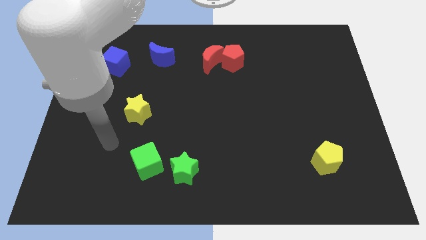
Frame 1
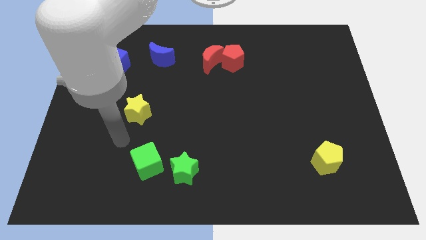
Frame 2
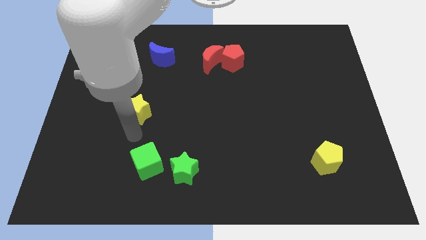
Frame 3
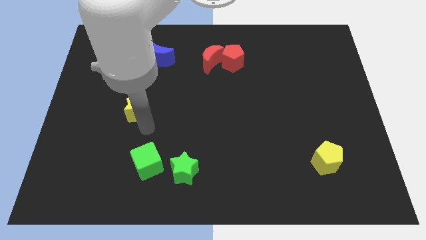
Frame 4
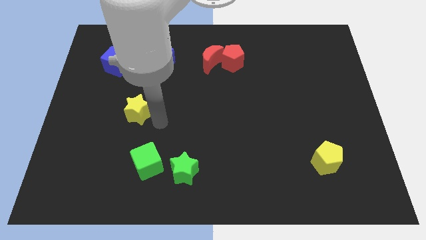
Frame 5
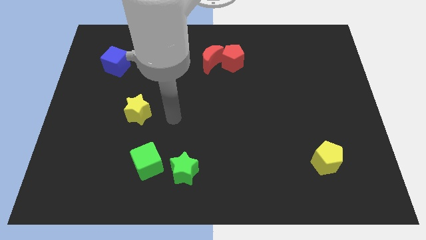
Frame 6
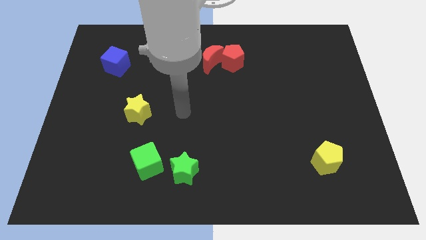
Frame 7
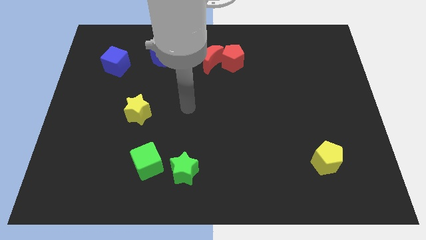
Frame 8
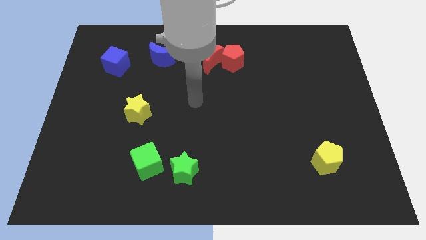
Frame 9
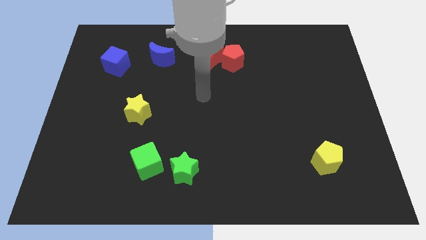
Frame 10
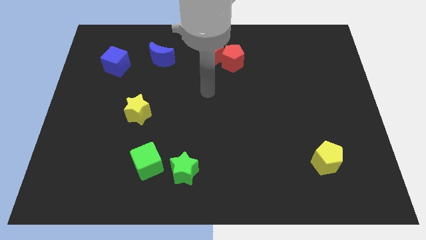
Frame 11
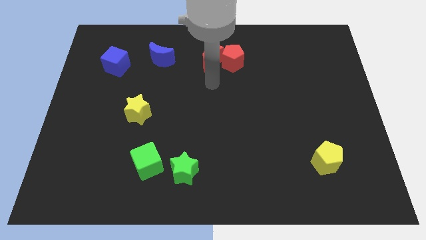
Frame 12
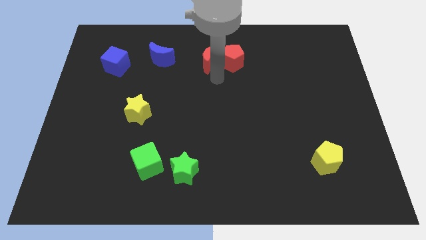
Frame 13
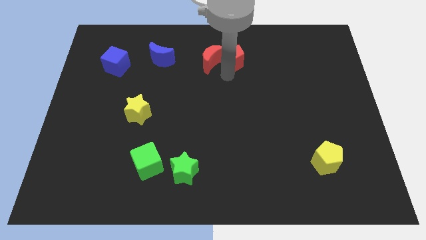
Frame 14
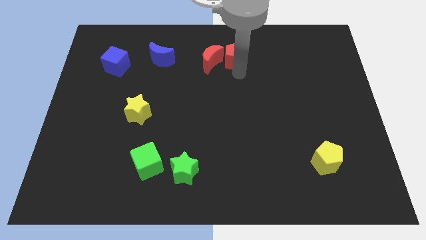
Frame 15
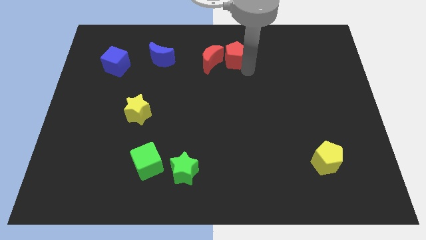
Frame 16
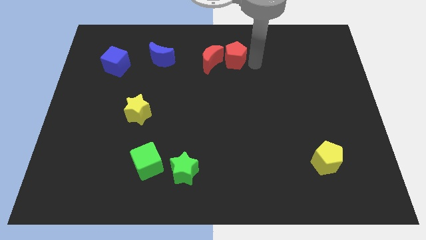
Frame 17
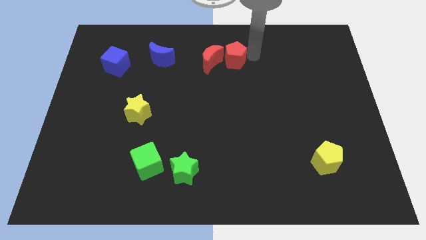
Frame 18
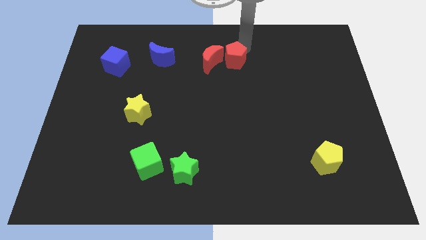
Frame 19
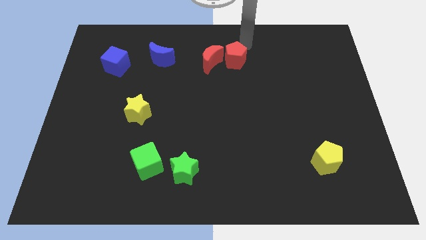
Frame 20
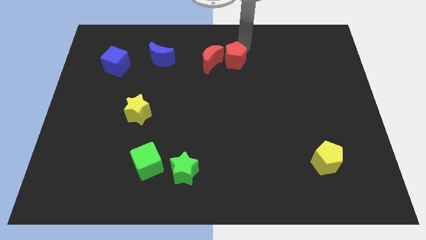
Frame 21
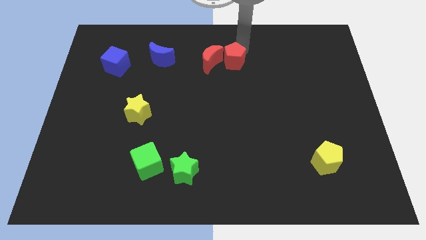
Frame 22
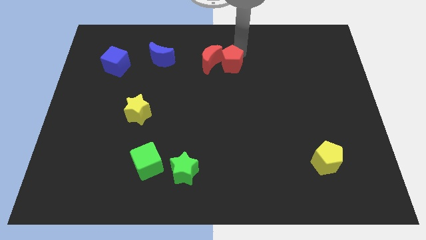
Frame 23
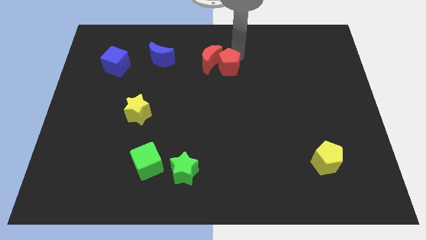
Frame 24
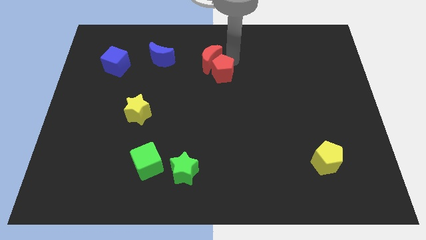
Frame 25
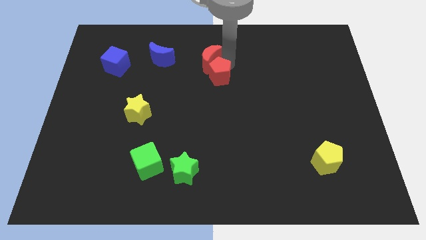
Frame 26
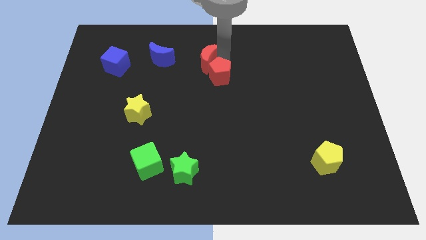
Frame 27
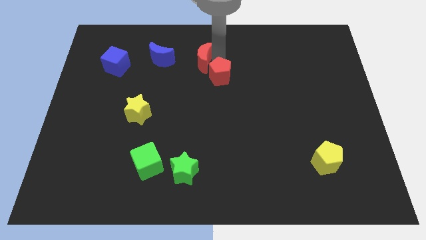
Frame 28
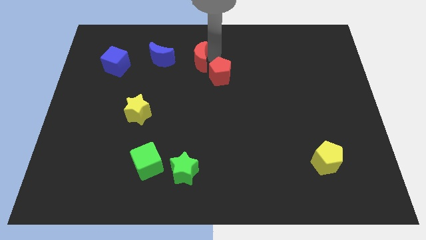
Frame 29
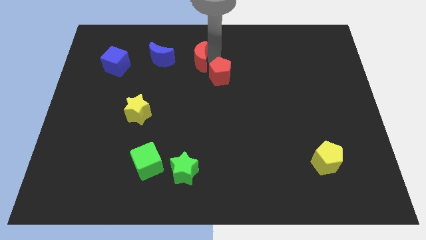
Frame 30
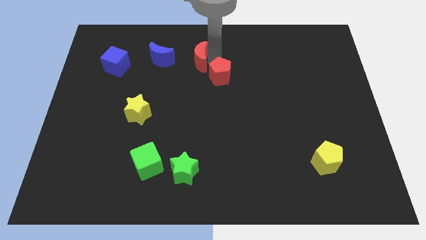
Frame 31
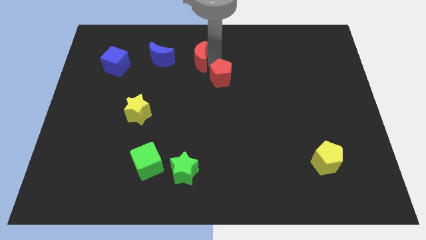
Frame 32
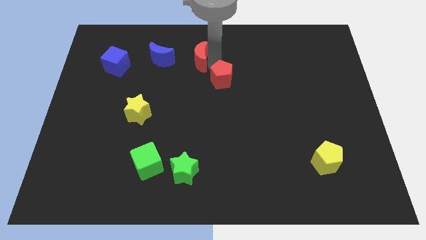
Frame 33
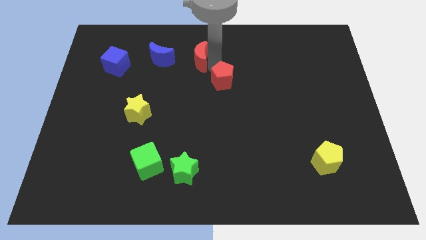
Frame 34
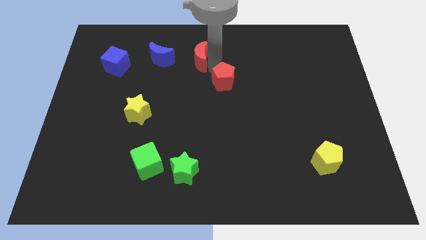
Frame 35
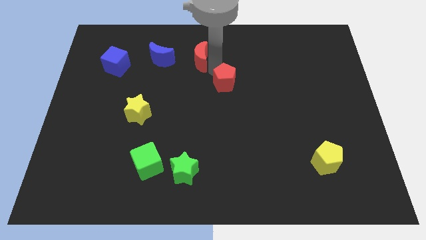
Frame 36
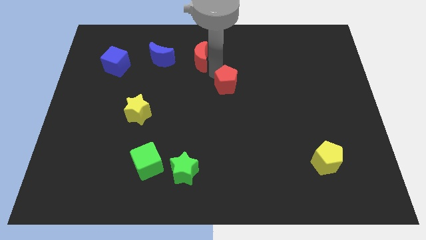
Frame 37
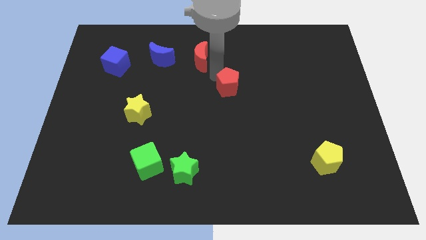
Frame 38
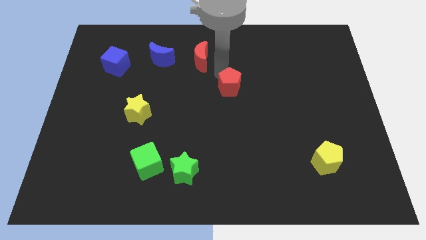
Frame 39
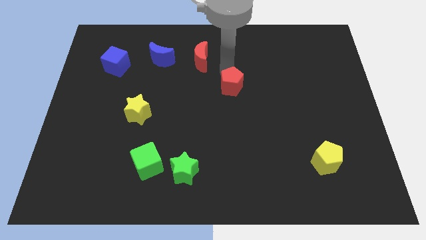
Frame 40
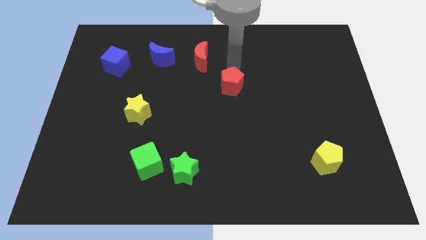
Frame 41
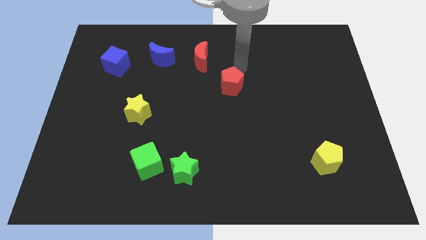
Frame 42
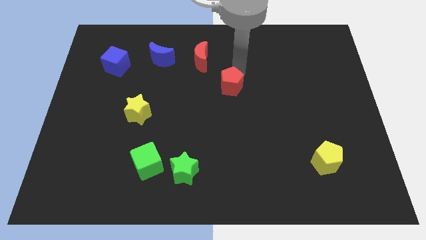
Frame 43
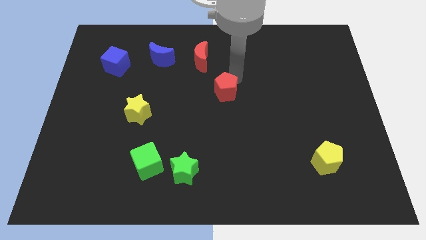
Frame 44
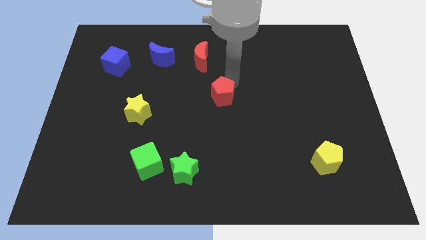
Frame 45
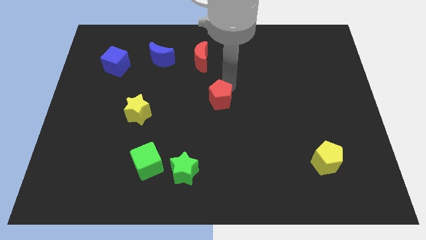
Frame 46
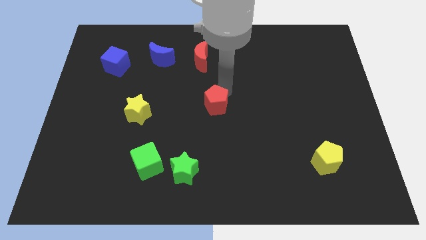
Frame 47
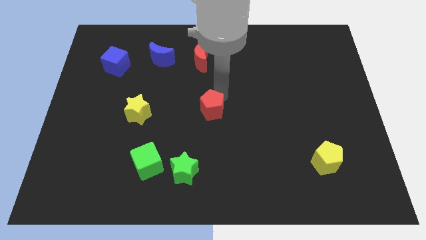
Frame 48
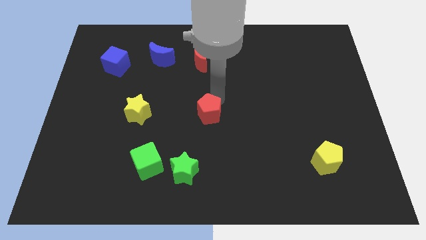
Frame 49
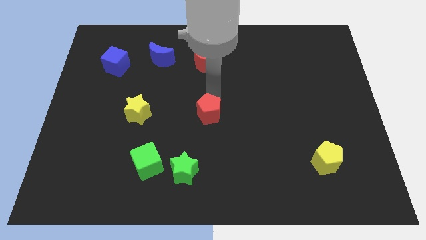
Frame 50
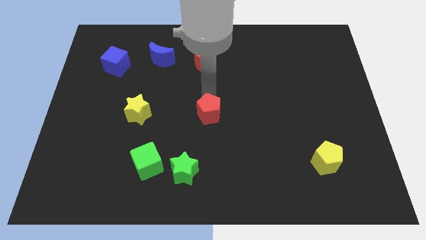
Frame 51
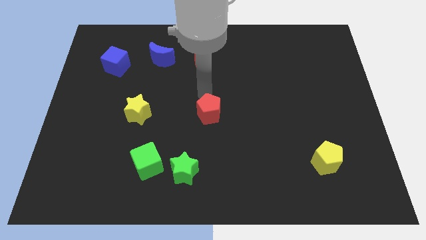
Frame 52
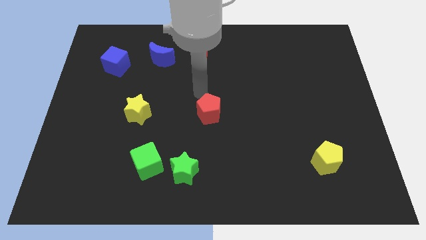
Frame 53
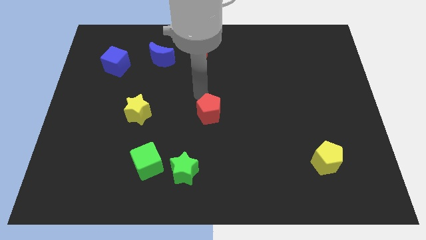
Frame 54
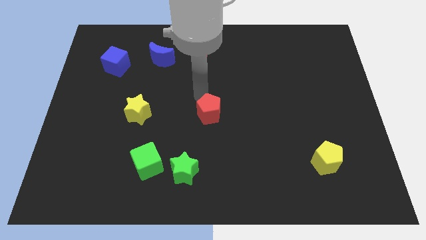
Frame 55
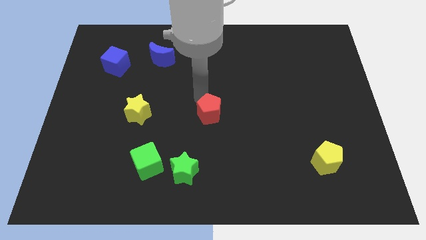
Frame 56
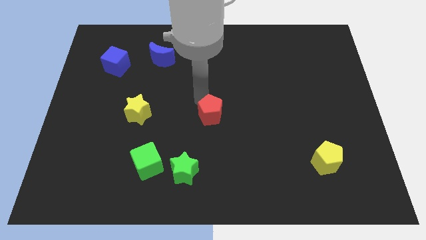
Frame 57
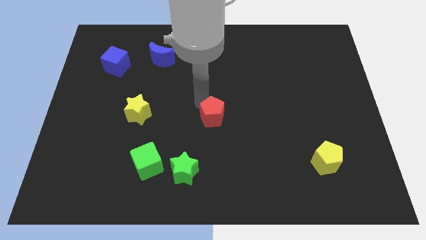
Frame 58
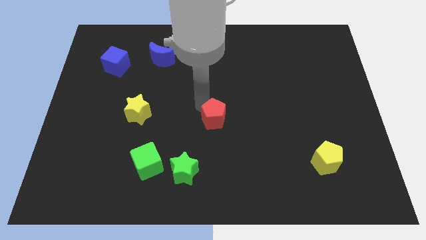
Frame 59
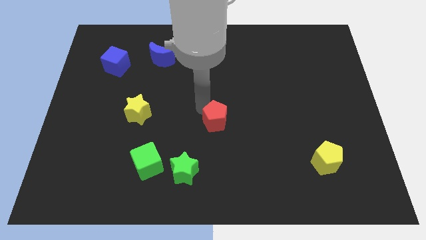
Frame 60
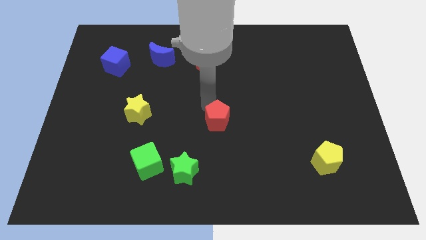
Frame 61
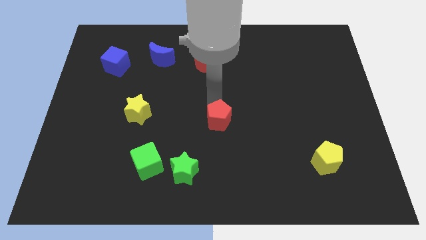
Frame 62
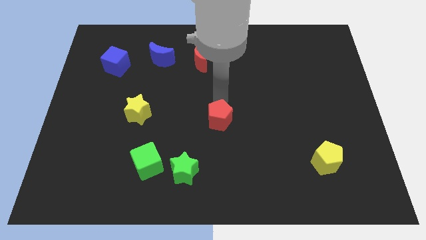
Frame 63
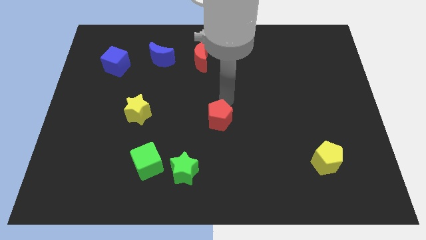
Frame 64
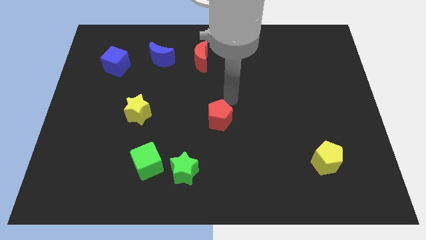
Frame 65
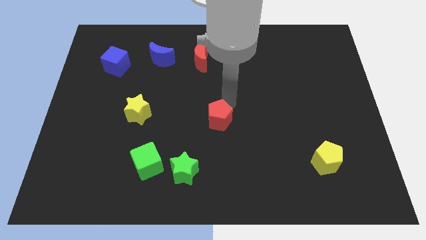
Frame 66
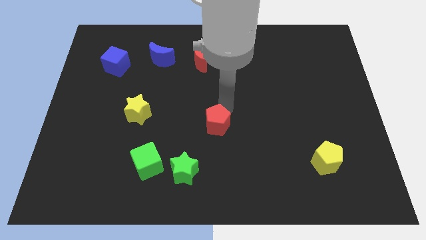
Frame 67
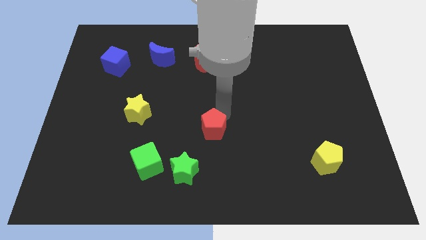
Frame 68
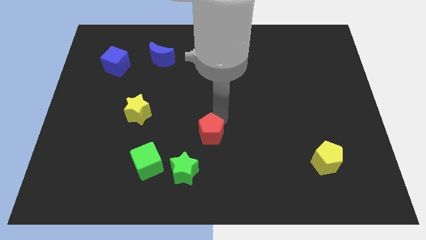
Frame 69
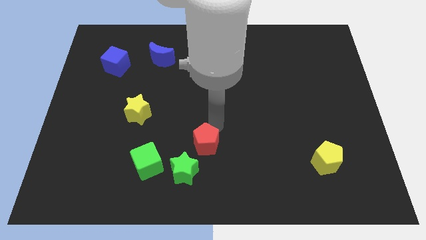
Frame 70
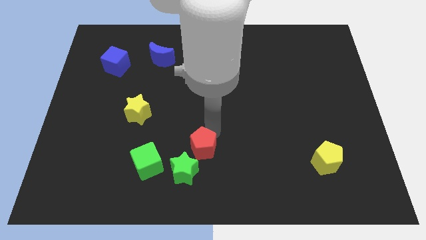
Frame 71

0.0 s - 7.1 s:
put the red pentagon to the right of the green cube

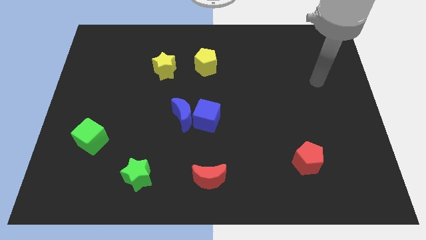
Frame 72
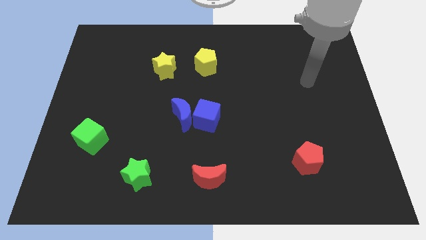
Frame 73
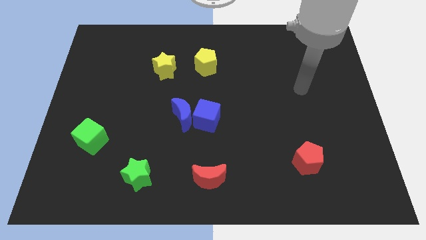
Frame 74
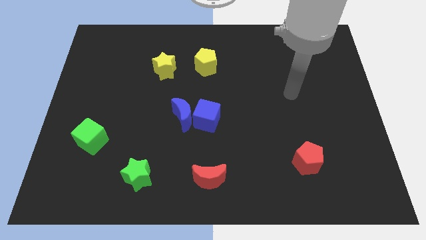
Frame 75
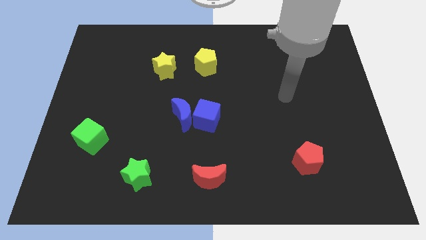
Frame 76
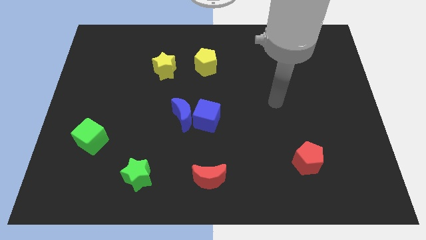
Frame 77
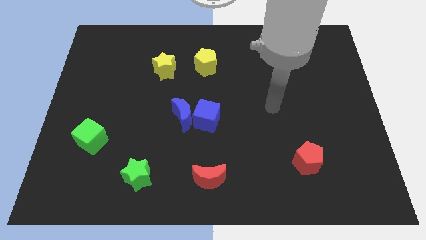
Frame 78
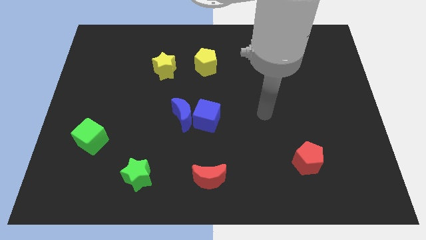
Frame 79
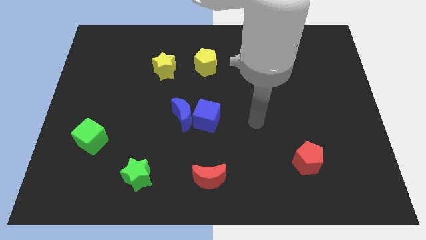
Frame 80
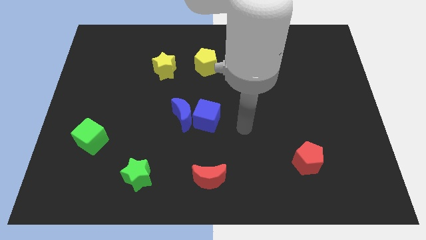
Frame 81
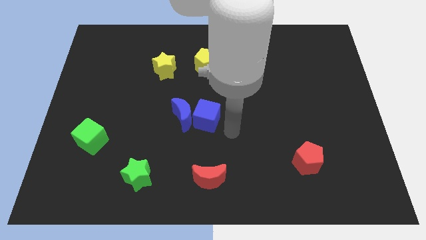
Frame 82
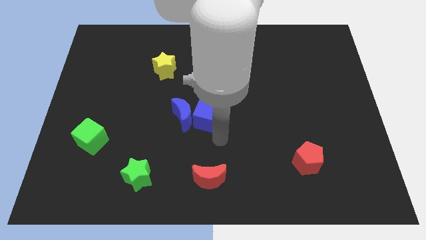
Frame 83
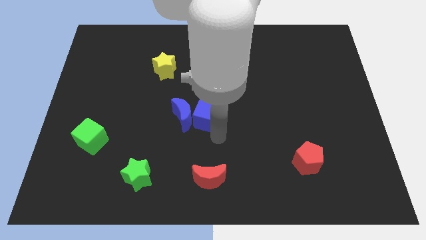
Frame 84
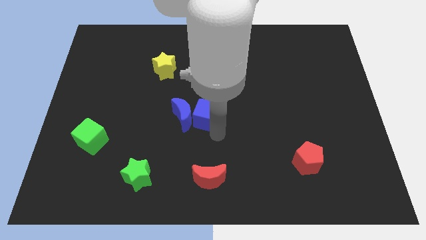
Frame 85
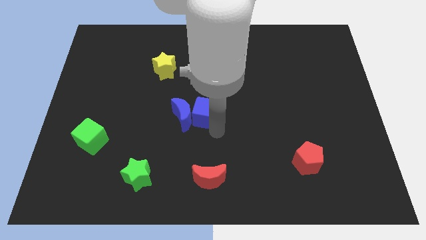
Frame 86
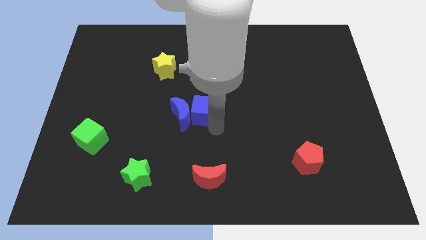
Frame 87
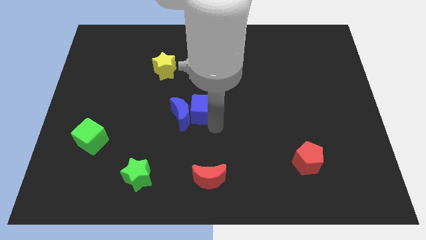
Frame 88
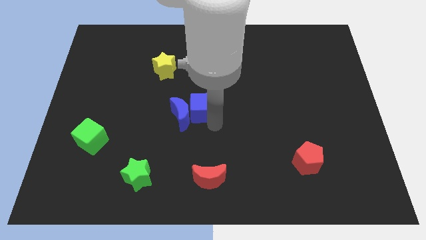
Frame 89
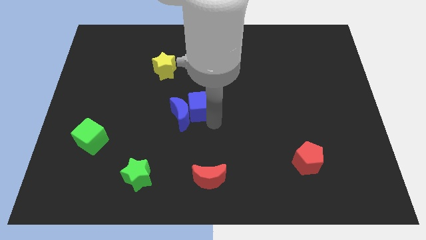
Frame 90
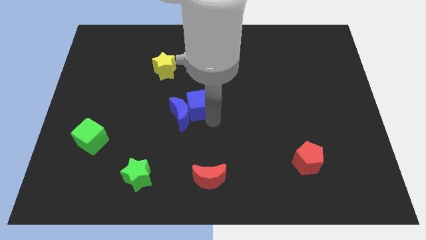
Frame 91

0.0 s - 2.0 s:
move the blue cube to the top side of the blue moon
